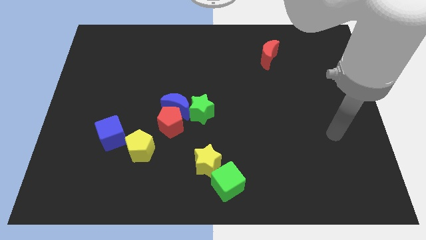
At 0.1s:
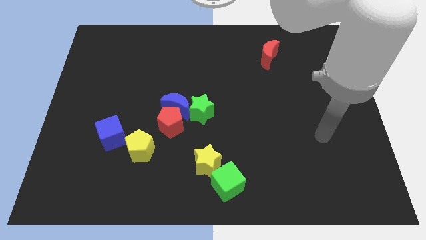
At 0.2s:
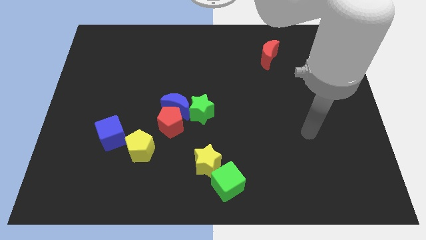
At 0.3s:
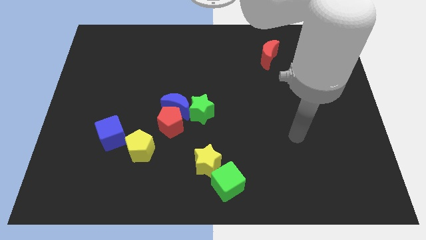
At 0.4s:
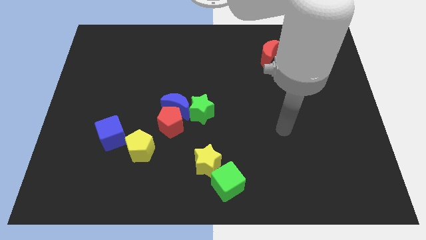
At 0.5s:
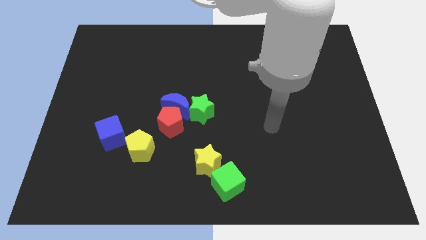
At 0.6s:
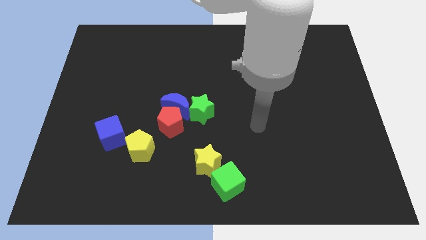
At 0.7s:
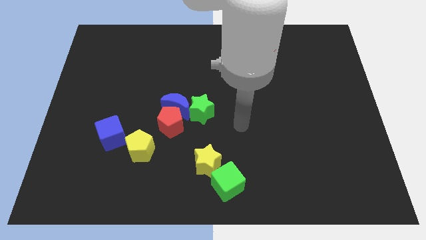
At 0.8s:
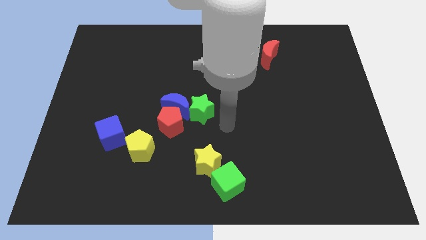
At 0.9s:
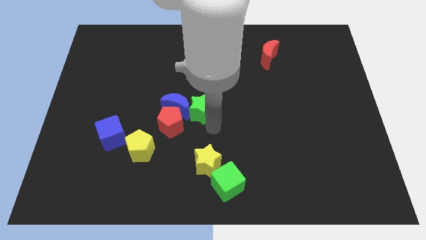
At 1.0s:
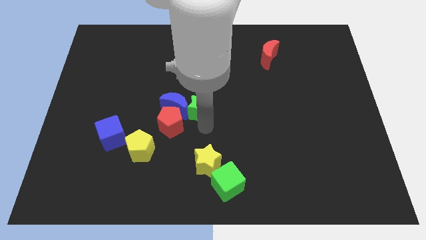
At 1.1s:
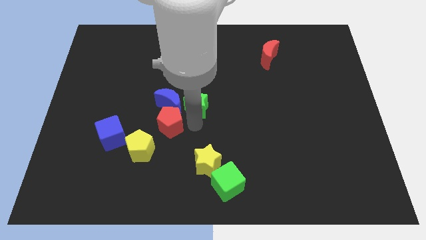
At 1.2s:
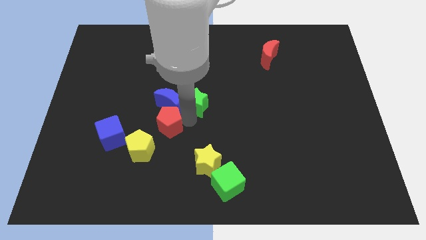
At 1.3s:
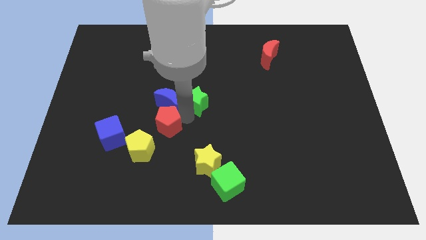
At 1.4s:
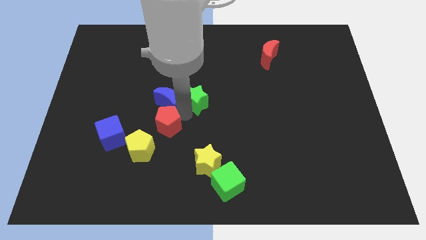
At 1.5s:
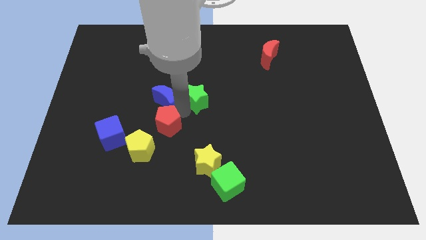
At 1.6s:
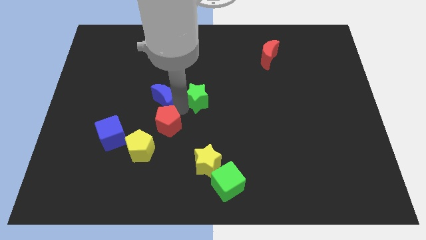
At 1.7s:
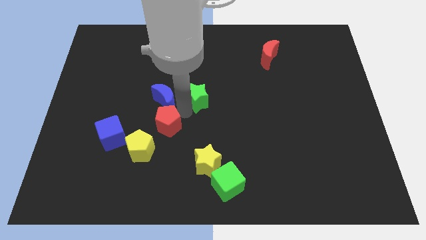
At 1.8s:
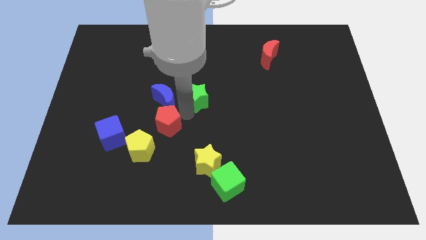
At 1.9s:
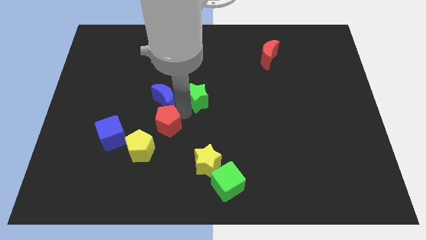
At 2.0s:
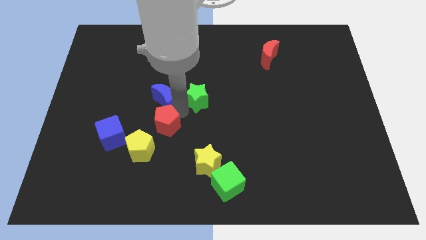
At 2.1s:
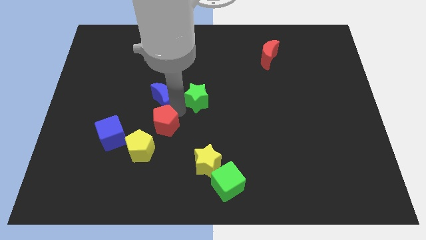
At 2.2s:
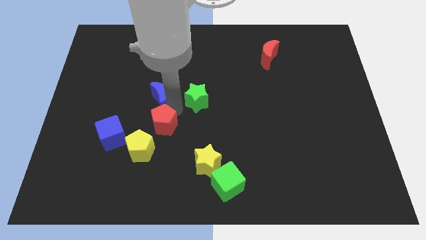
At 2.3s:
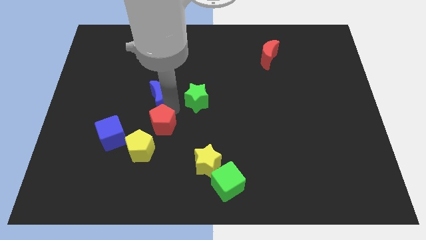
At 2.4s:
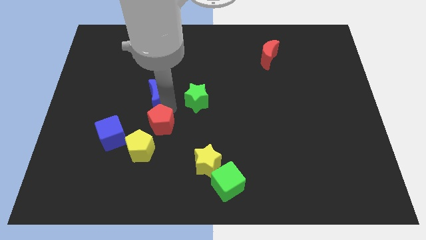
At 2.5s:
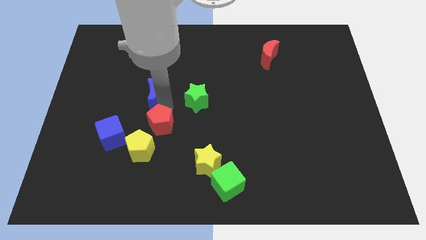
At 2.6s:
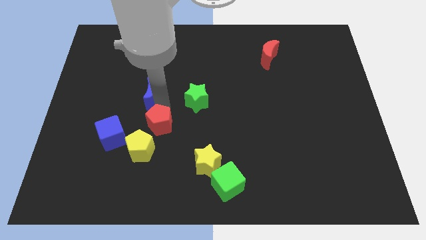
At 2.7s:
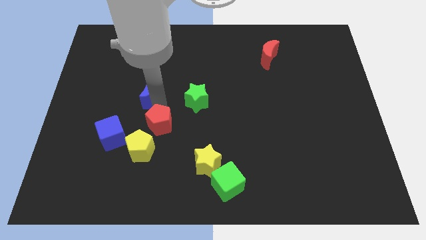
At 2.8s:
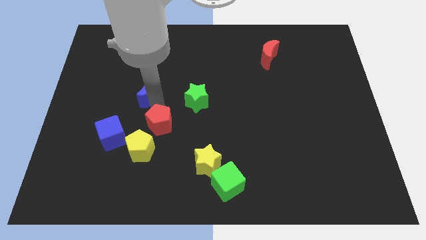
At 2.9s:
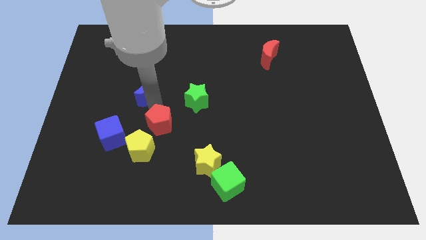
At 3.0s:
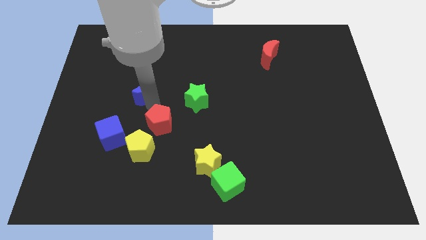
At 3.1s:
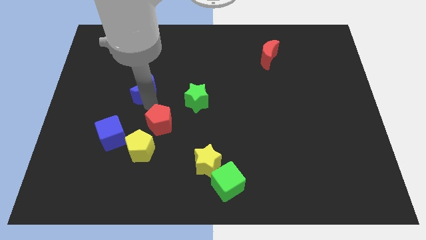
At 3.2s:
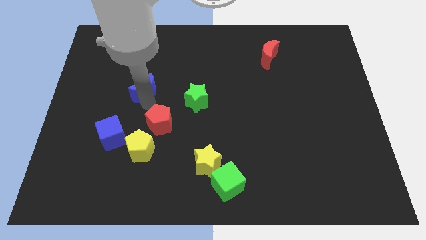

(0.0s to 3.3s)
pull the blue moon apart from the red pentagon and green star

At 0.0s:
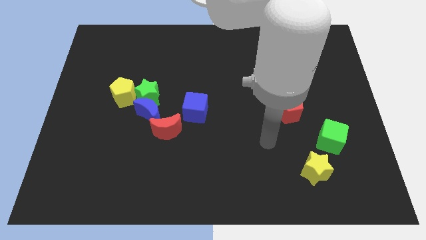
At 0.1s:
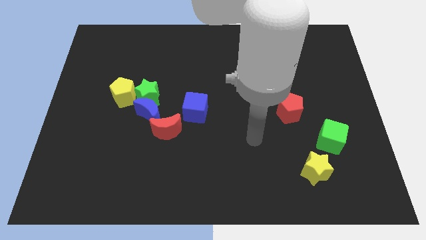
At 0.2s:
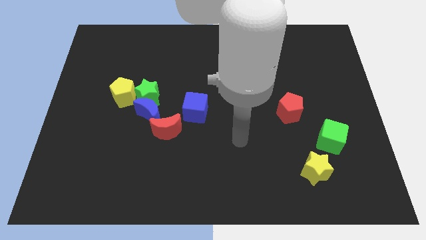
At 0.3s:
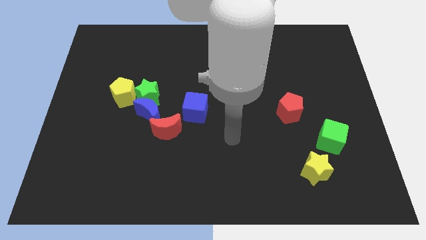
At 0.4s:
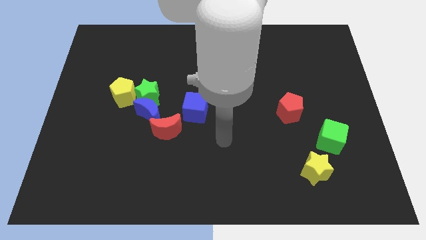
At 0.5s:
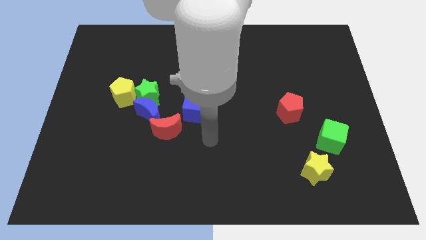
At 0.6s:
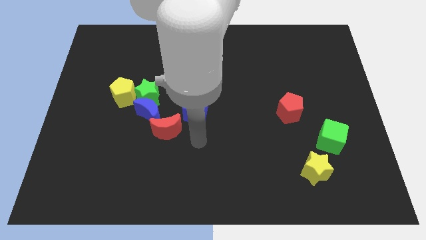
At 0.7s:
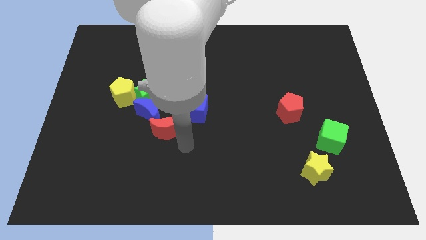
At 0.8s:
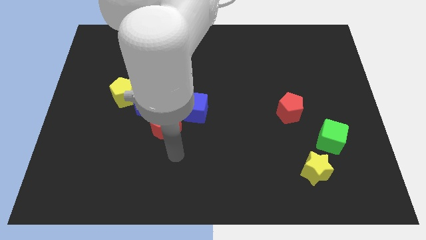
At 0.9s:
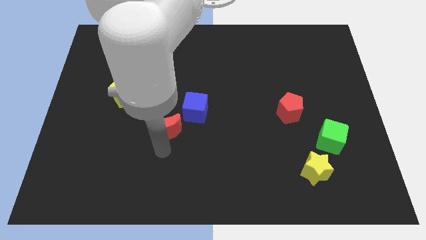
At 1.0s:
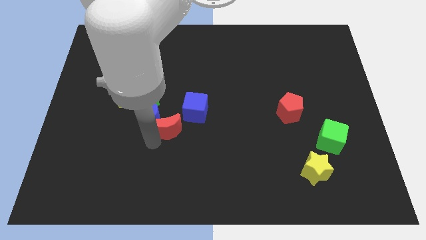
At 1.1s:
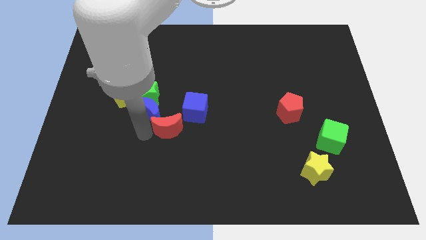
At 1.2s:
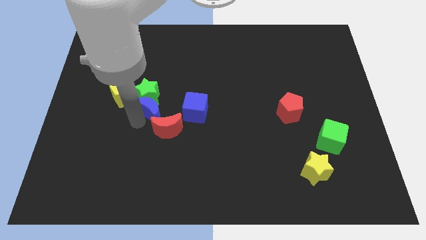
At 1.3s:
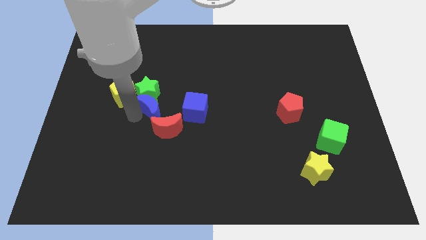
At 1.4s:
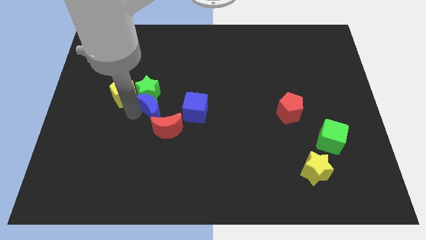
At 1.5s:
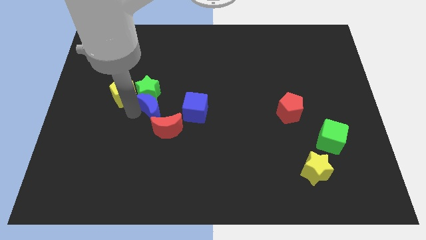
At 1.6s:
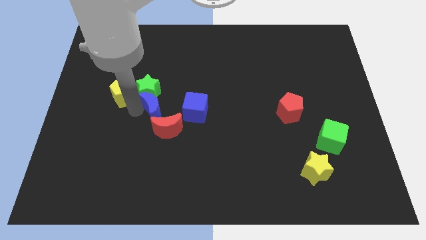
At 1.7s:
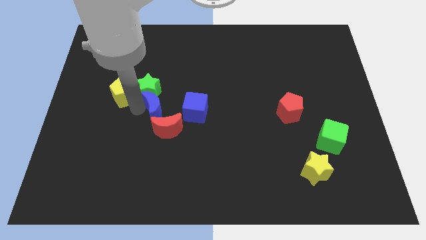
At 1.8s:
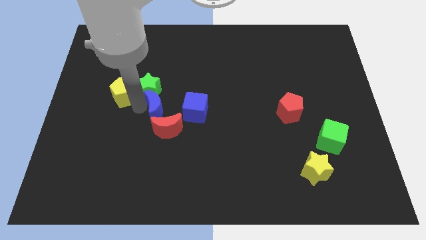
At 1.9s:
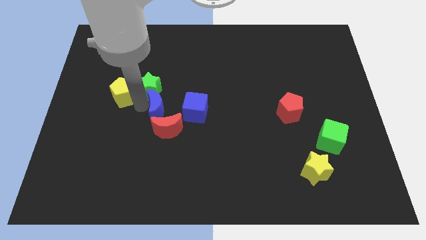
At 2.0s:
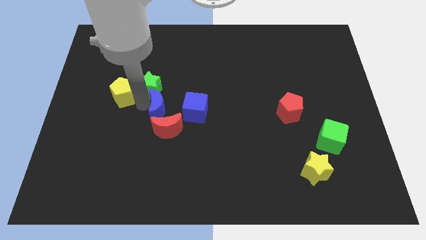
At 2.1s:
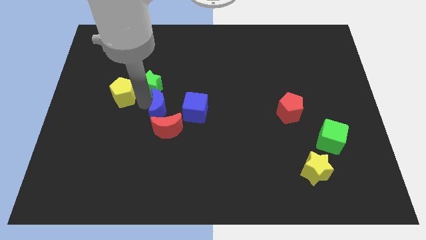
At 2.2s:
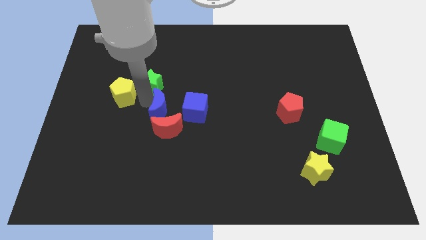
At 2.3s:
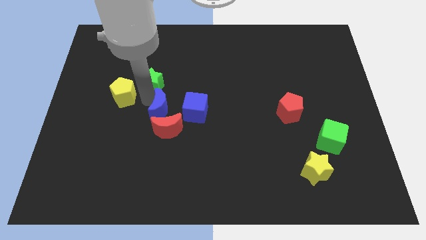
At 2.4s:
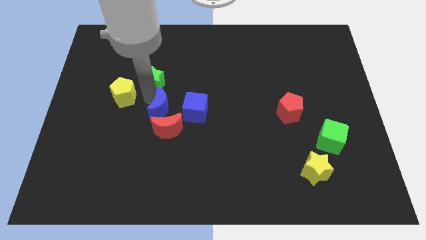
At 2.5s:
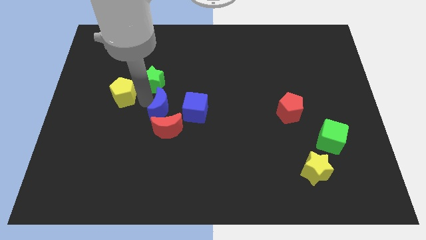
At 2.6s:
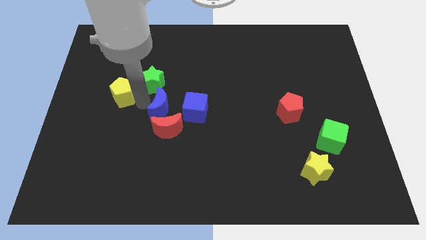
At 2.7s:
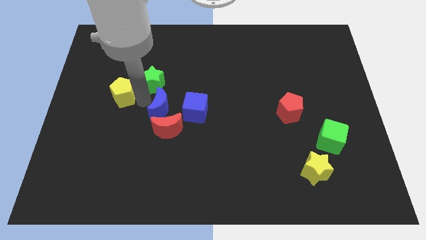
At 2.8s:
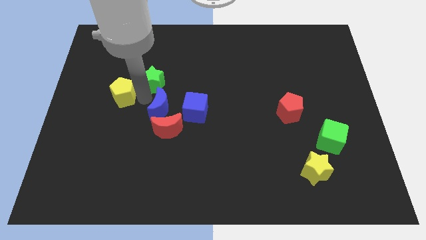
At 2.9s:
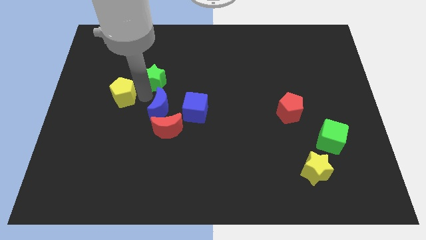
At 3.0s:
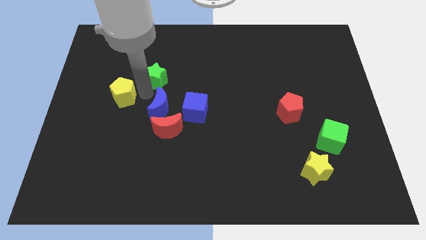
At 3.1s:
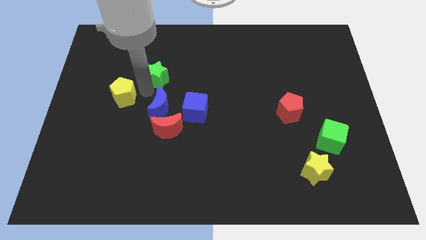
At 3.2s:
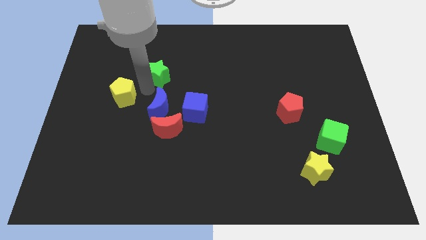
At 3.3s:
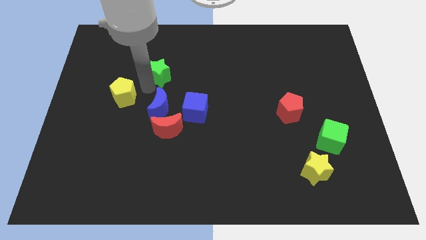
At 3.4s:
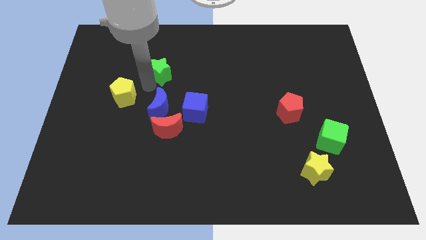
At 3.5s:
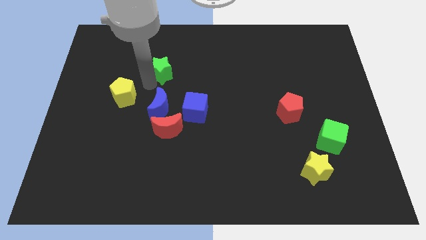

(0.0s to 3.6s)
move the green star away from the blue moon and yellow pentagon

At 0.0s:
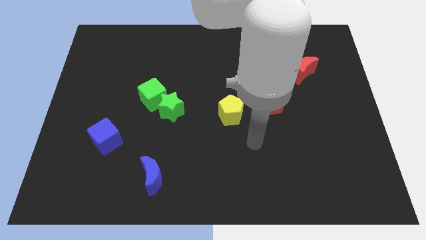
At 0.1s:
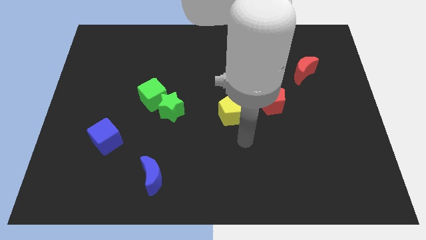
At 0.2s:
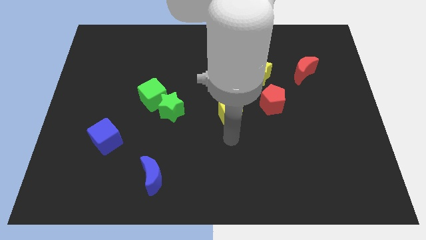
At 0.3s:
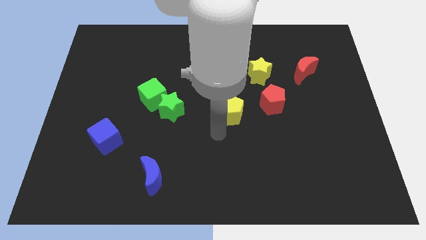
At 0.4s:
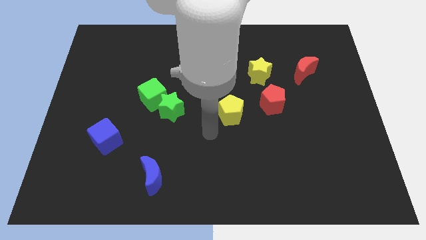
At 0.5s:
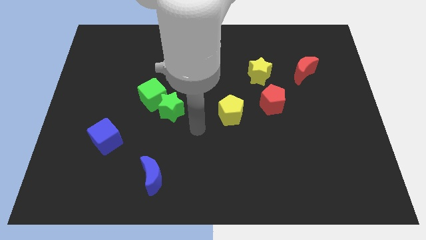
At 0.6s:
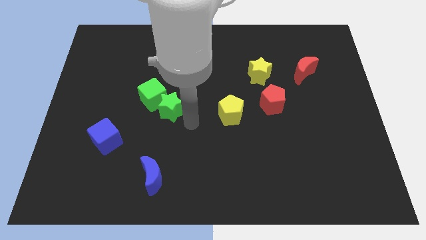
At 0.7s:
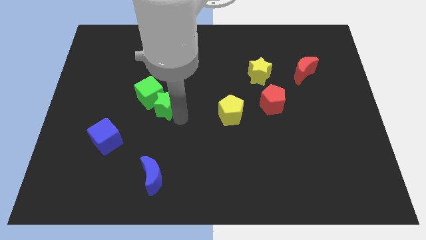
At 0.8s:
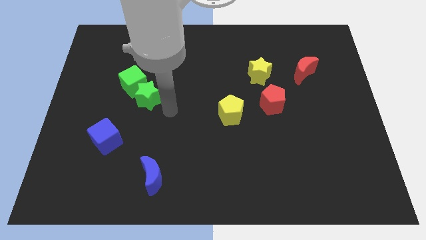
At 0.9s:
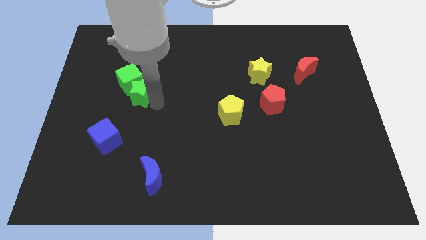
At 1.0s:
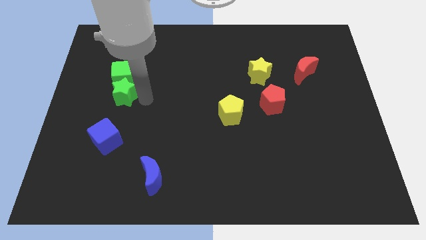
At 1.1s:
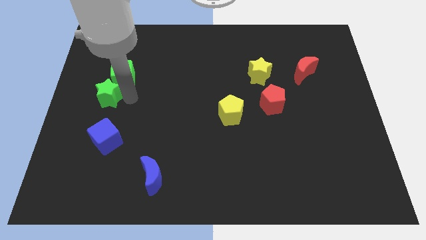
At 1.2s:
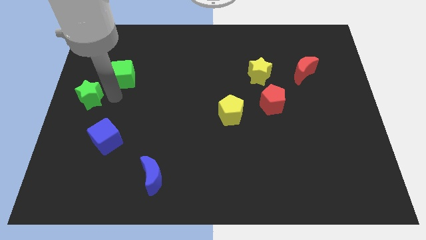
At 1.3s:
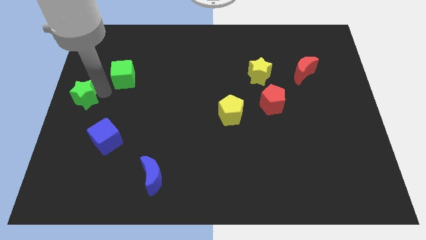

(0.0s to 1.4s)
separate the green cube from the green star

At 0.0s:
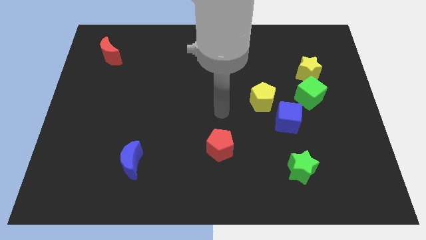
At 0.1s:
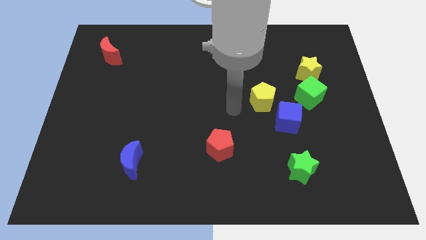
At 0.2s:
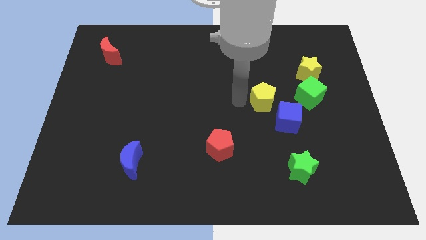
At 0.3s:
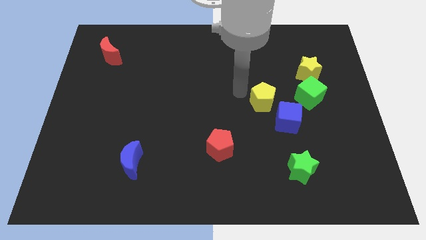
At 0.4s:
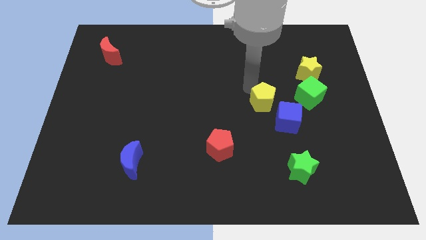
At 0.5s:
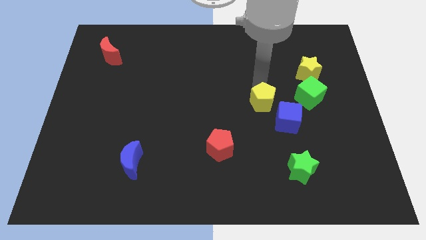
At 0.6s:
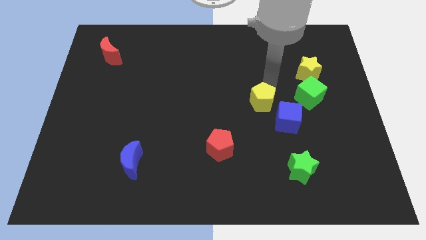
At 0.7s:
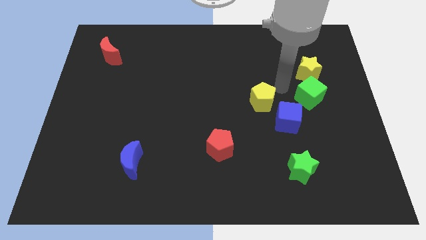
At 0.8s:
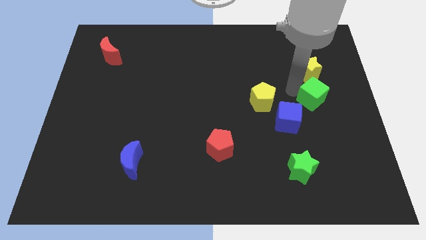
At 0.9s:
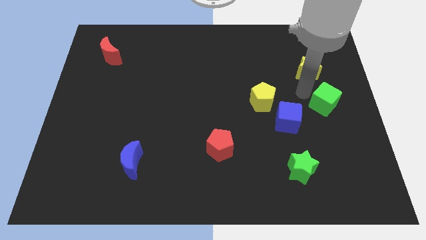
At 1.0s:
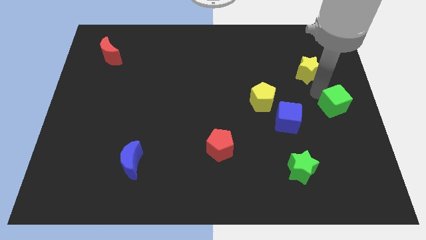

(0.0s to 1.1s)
separate the yellow star from the green cube

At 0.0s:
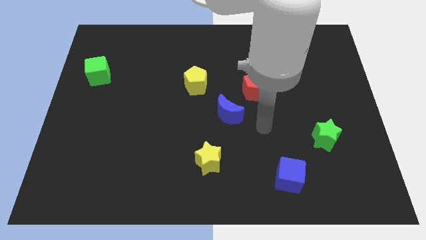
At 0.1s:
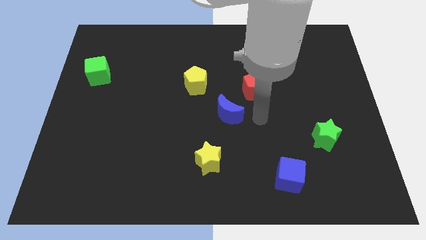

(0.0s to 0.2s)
move the blue moon away from the red pentagon
